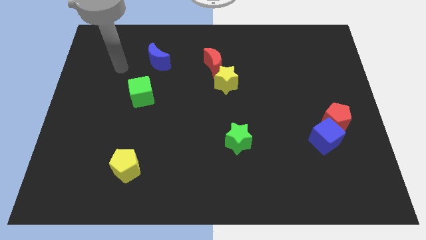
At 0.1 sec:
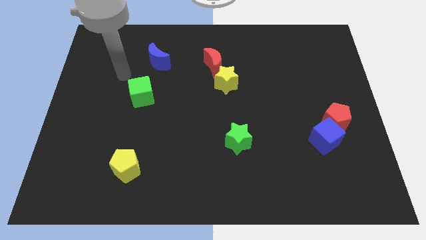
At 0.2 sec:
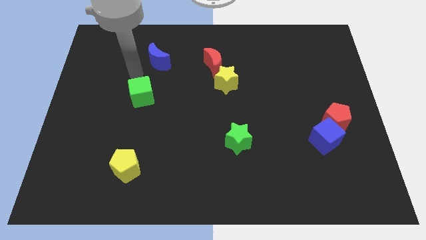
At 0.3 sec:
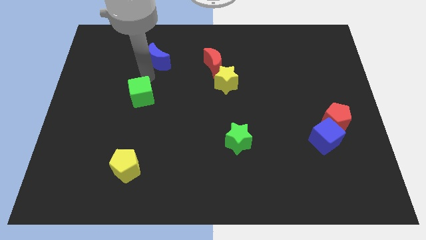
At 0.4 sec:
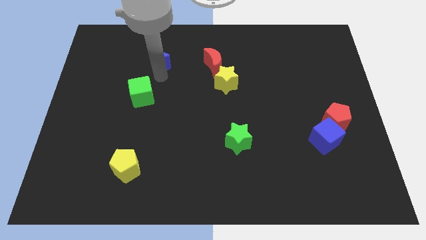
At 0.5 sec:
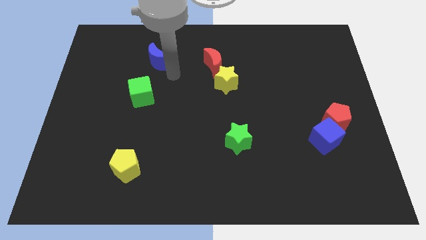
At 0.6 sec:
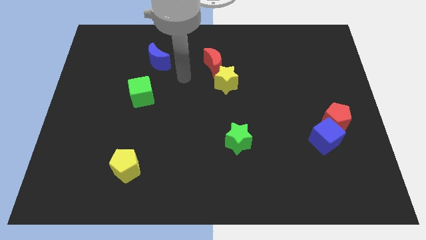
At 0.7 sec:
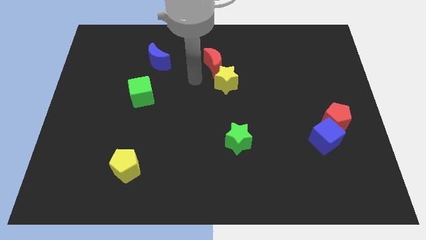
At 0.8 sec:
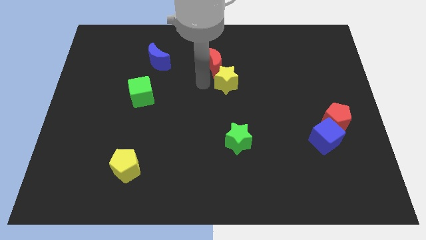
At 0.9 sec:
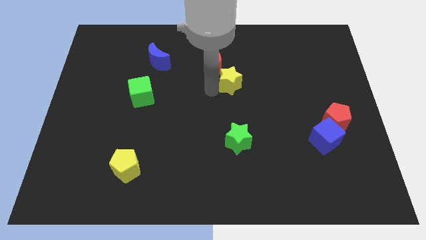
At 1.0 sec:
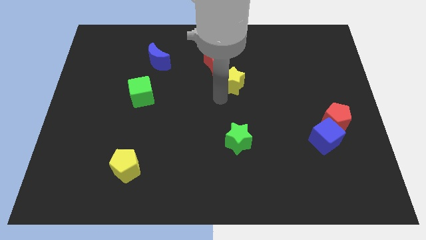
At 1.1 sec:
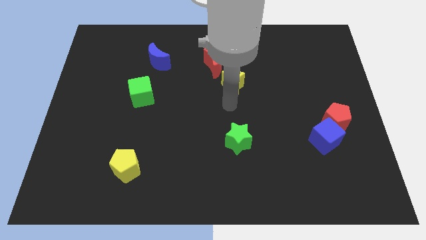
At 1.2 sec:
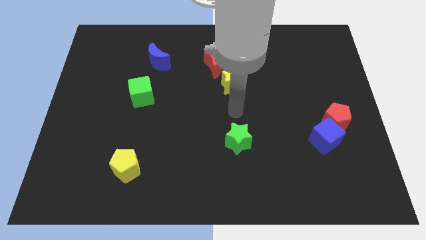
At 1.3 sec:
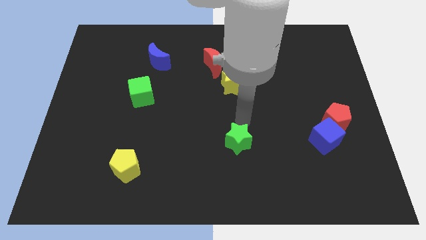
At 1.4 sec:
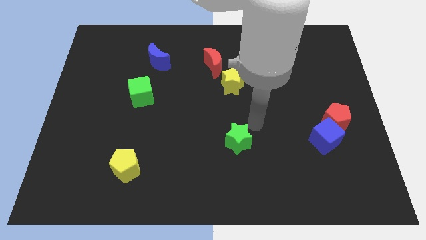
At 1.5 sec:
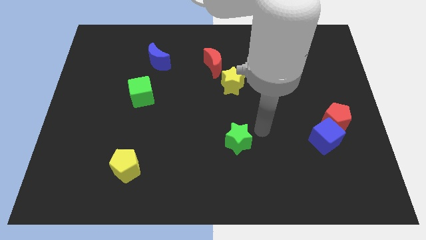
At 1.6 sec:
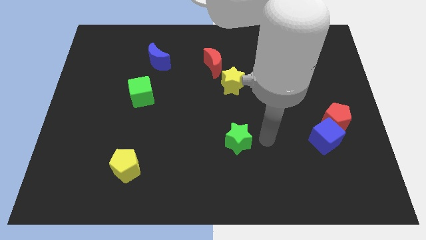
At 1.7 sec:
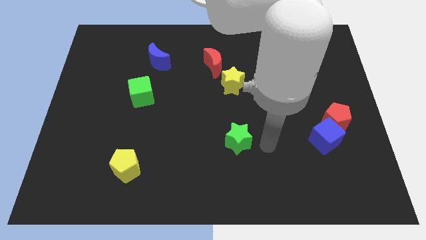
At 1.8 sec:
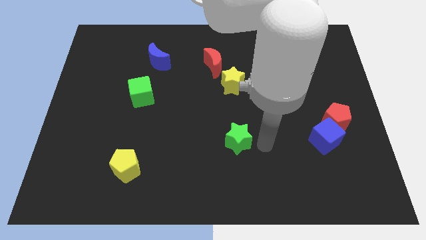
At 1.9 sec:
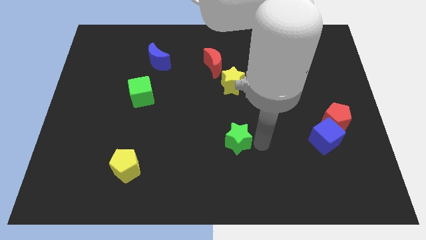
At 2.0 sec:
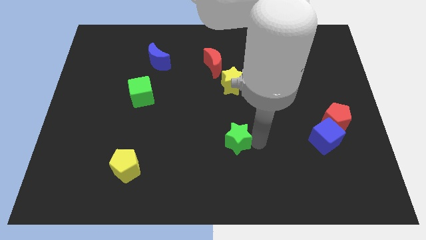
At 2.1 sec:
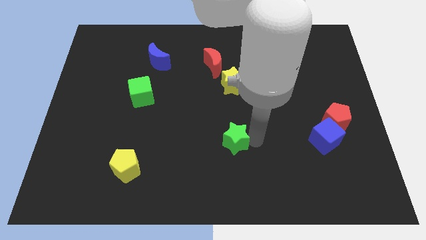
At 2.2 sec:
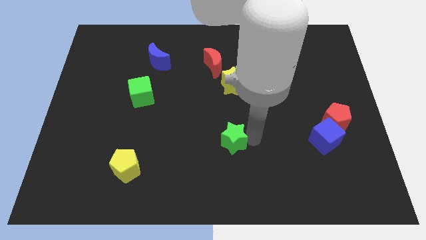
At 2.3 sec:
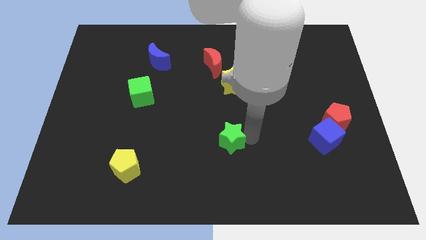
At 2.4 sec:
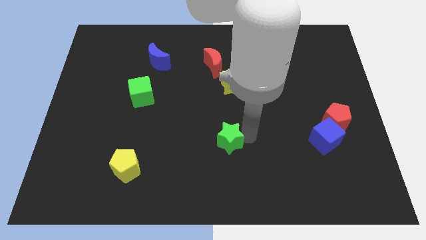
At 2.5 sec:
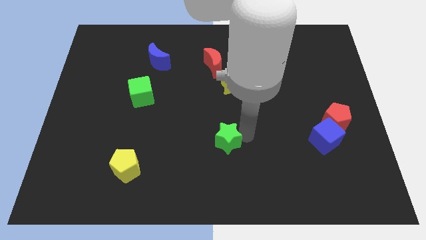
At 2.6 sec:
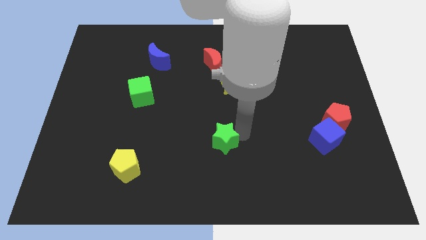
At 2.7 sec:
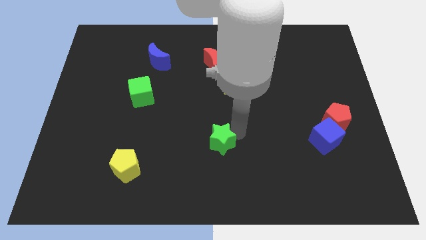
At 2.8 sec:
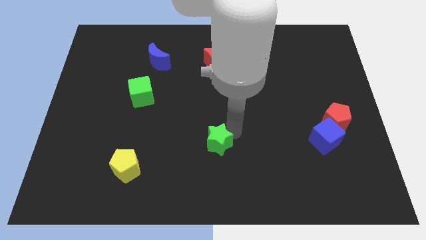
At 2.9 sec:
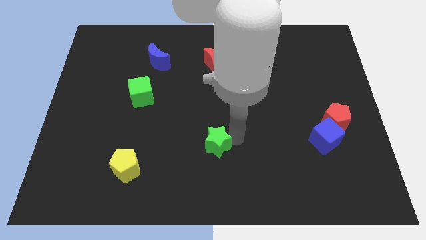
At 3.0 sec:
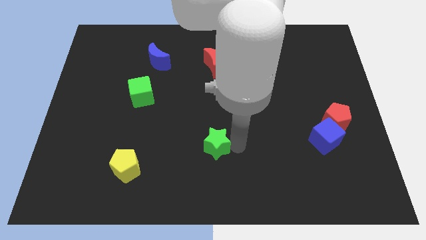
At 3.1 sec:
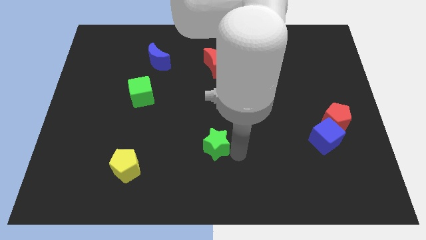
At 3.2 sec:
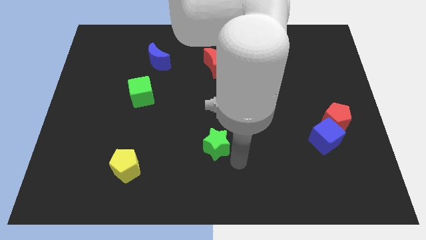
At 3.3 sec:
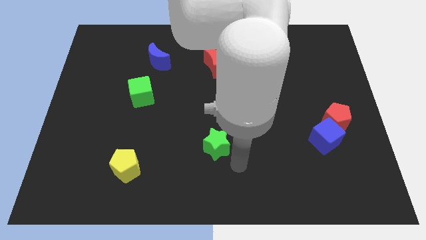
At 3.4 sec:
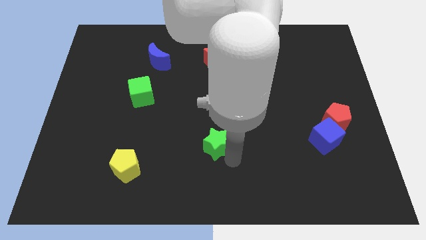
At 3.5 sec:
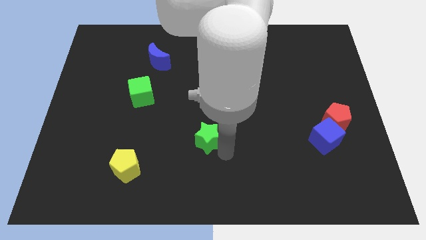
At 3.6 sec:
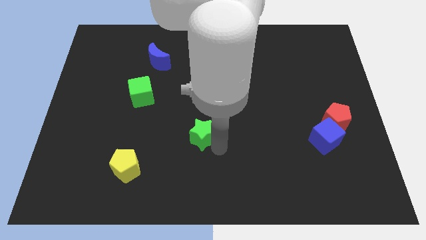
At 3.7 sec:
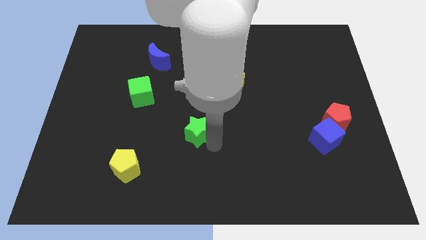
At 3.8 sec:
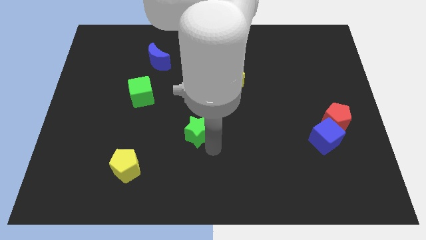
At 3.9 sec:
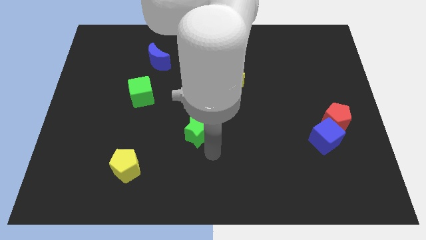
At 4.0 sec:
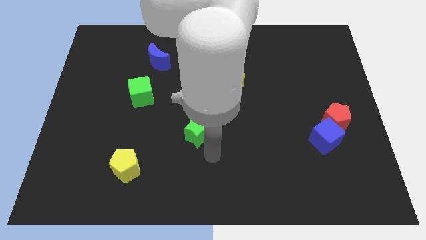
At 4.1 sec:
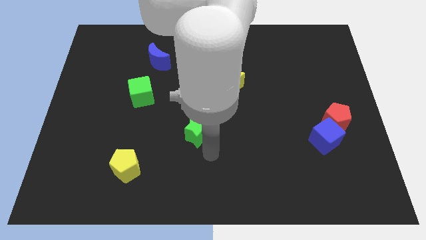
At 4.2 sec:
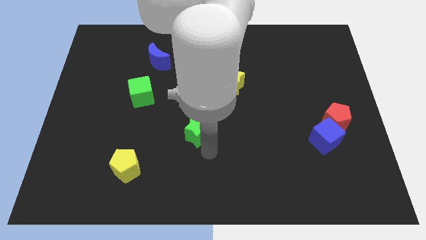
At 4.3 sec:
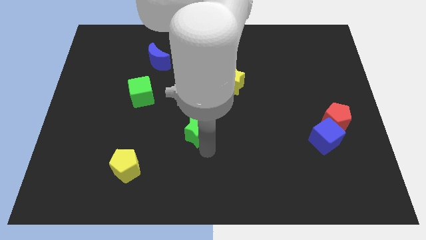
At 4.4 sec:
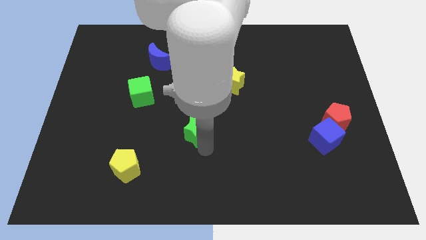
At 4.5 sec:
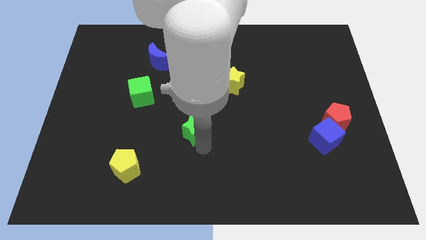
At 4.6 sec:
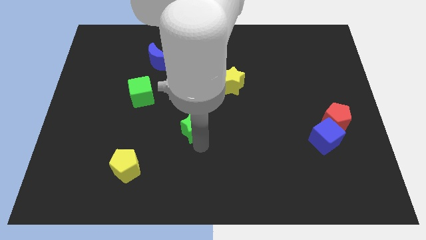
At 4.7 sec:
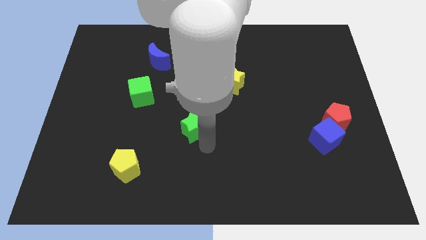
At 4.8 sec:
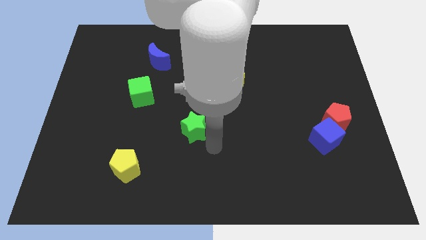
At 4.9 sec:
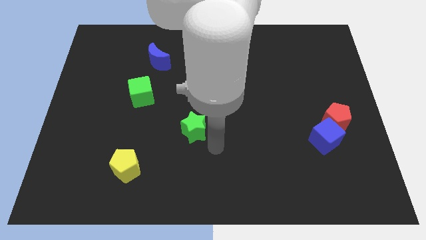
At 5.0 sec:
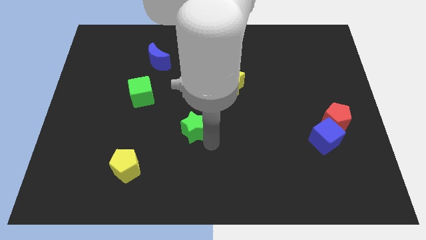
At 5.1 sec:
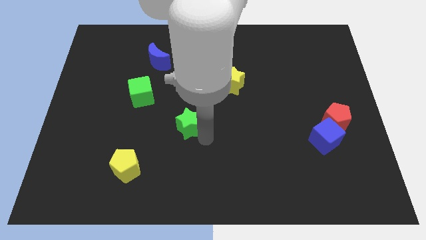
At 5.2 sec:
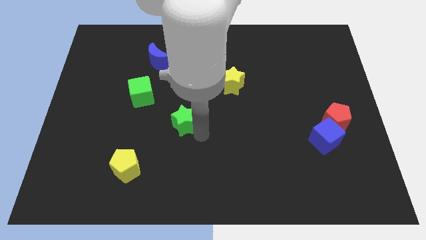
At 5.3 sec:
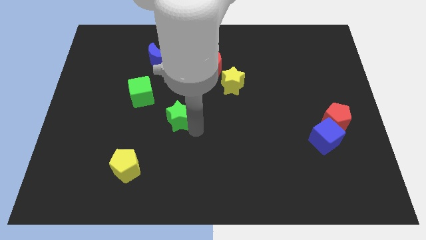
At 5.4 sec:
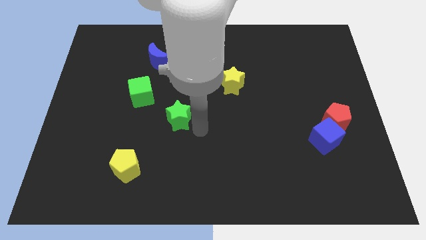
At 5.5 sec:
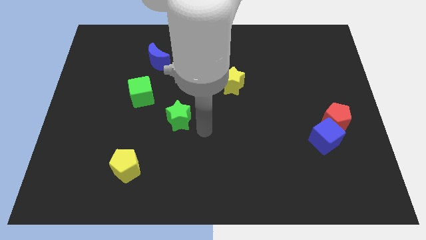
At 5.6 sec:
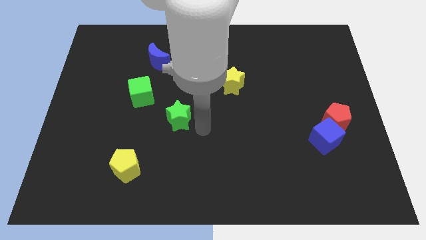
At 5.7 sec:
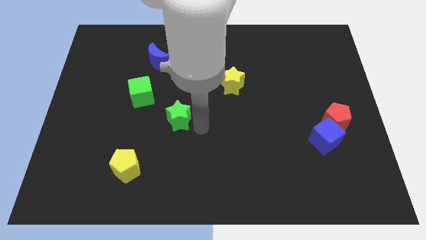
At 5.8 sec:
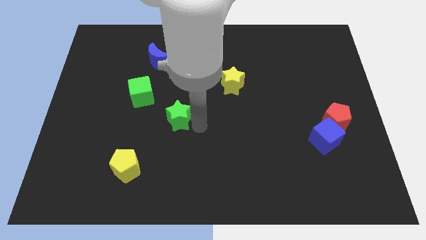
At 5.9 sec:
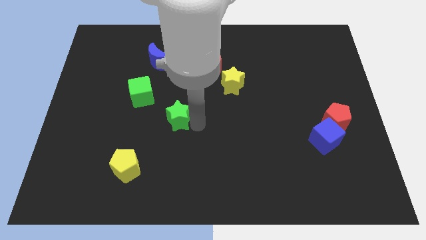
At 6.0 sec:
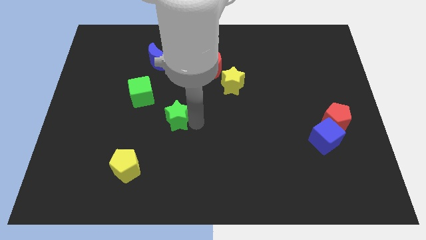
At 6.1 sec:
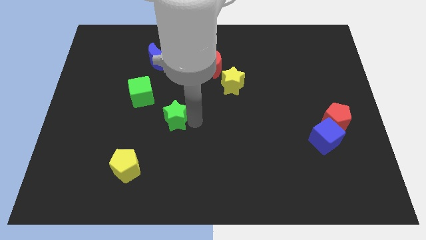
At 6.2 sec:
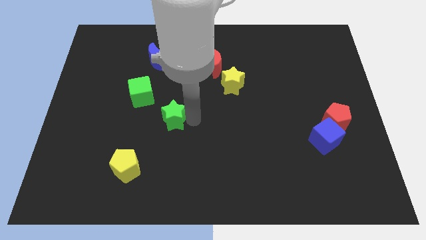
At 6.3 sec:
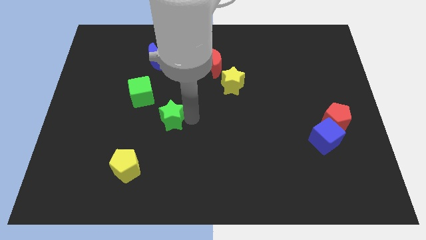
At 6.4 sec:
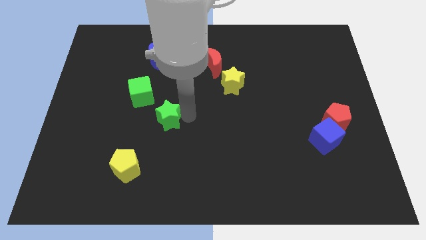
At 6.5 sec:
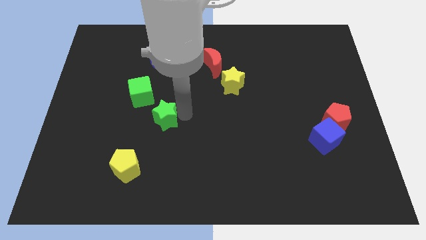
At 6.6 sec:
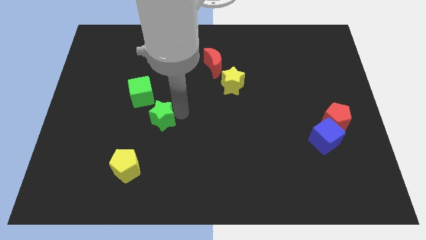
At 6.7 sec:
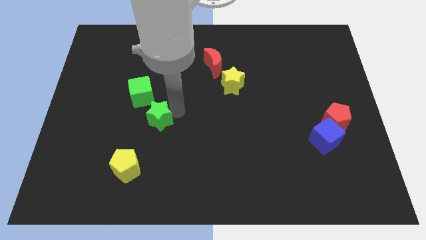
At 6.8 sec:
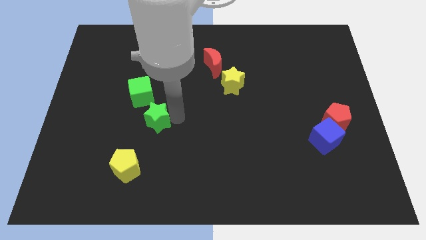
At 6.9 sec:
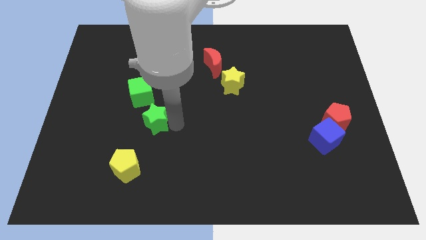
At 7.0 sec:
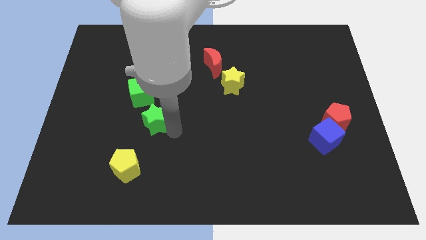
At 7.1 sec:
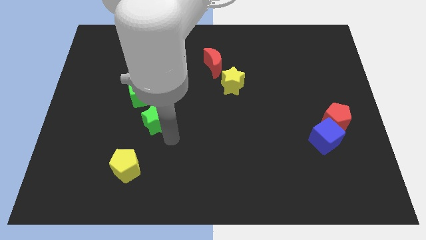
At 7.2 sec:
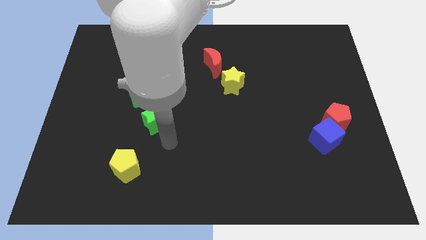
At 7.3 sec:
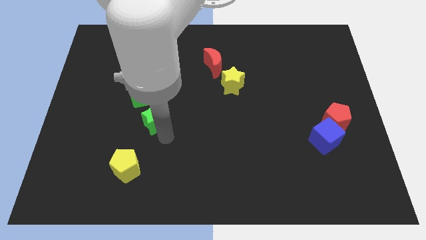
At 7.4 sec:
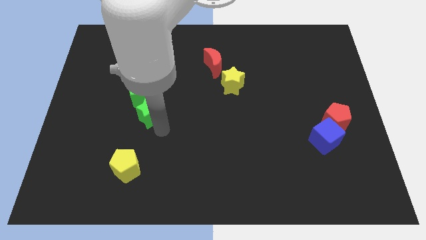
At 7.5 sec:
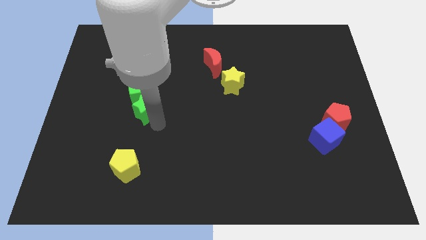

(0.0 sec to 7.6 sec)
move the green star towards the green cube

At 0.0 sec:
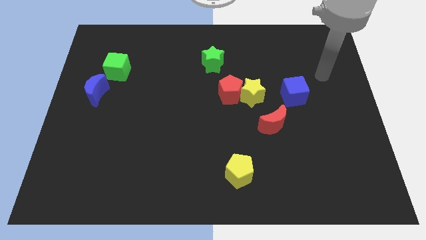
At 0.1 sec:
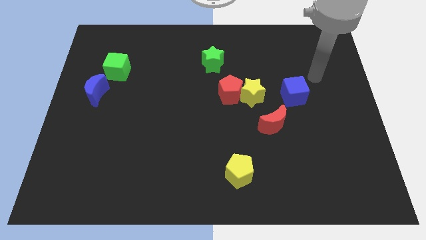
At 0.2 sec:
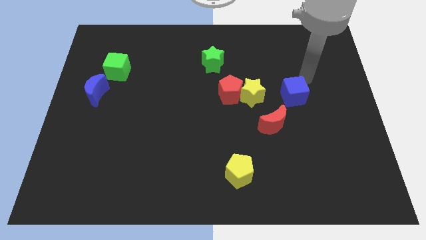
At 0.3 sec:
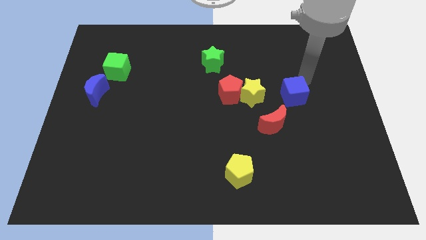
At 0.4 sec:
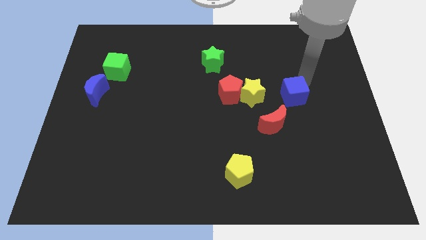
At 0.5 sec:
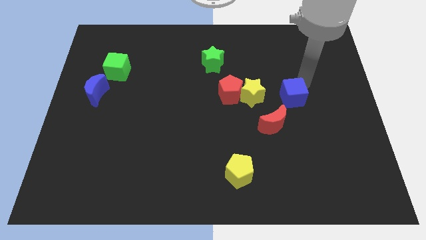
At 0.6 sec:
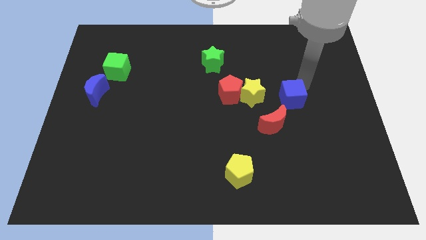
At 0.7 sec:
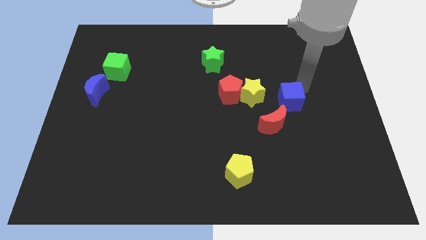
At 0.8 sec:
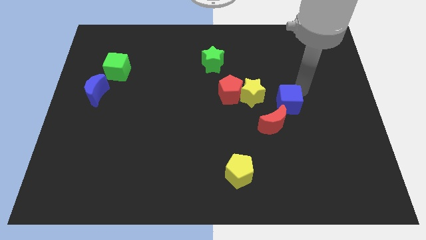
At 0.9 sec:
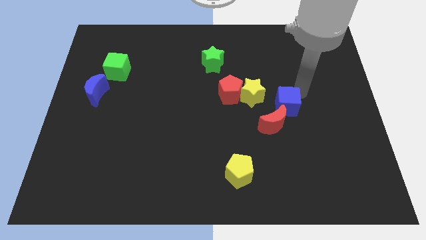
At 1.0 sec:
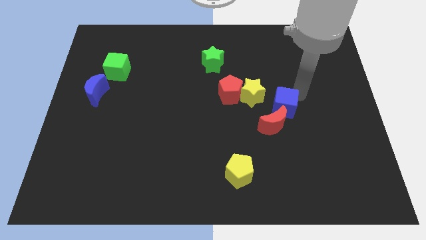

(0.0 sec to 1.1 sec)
put the blue cube towards the red moon
